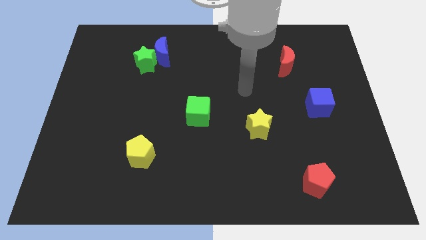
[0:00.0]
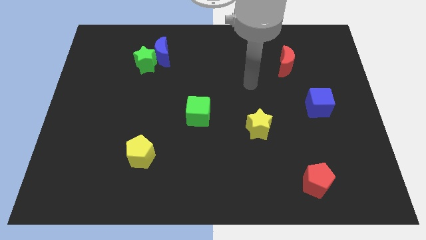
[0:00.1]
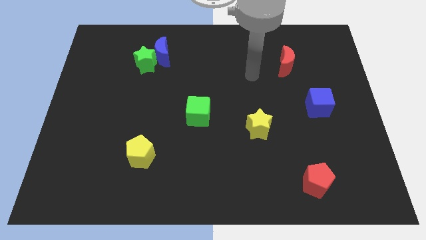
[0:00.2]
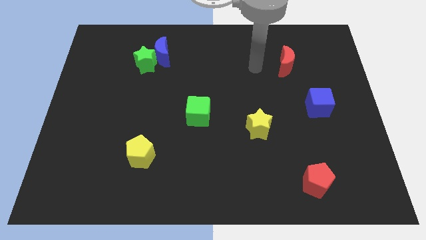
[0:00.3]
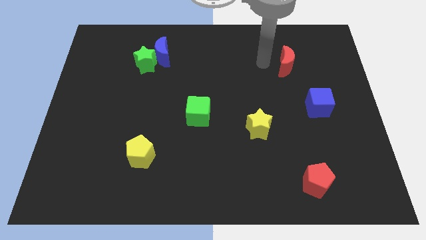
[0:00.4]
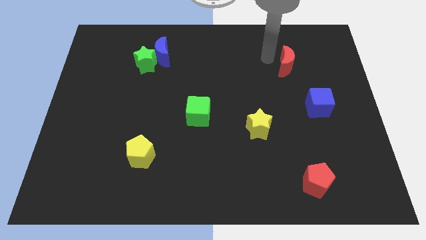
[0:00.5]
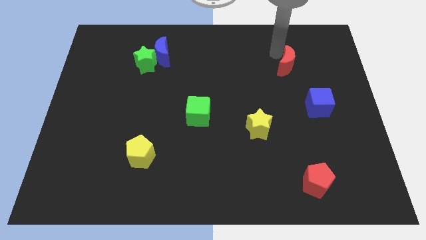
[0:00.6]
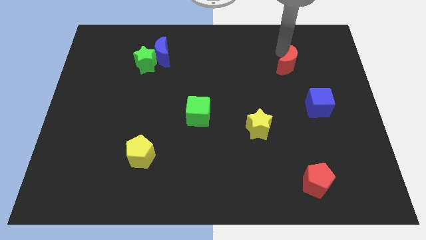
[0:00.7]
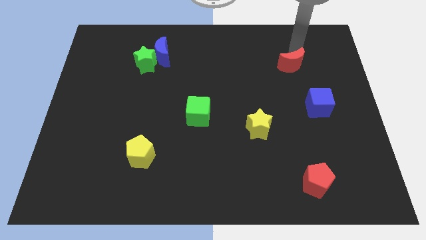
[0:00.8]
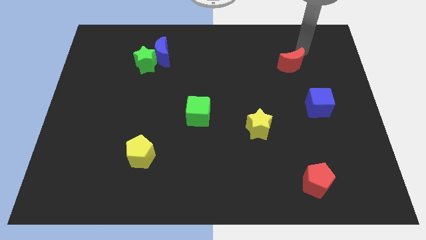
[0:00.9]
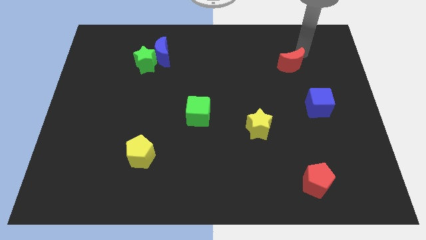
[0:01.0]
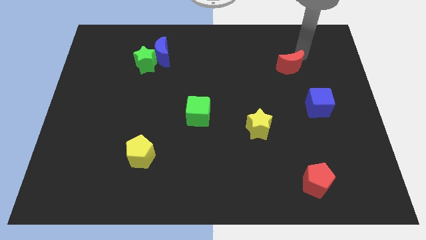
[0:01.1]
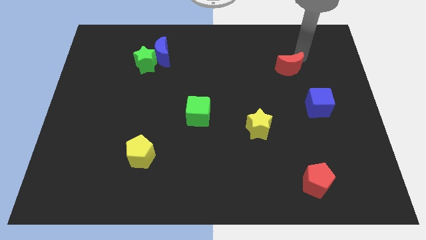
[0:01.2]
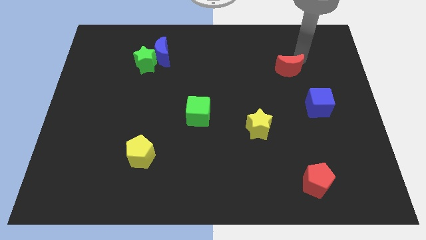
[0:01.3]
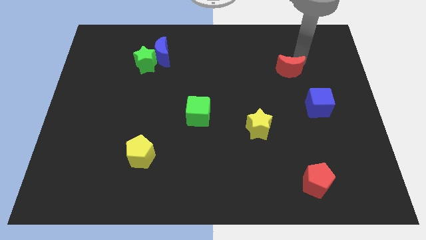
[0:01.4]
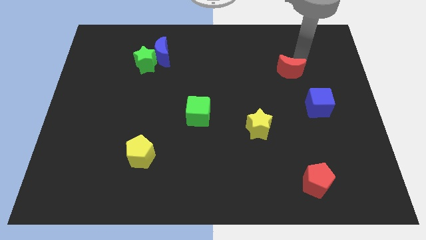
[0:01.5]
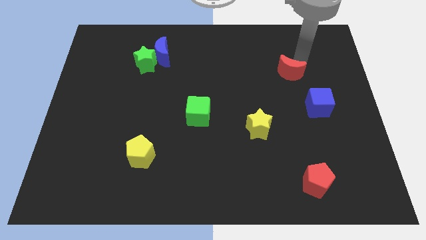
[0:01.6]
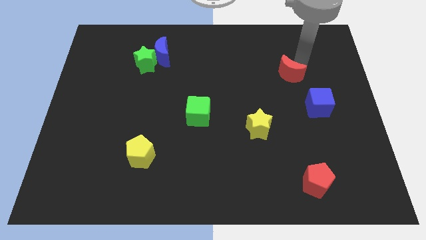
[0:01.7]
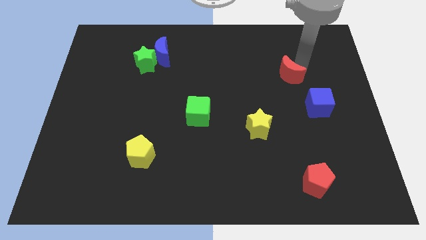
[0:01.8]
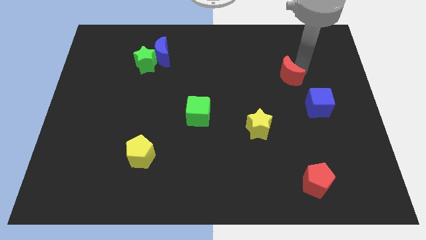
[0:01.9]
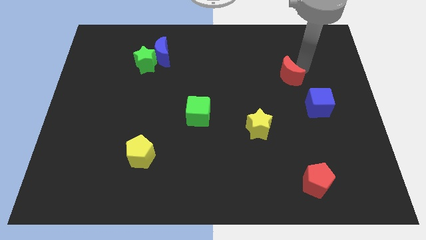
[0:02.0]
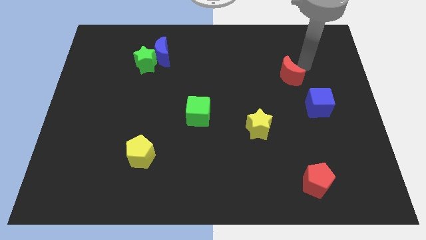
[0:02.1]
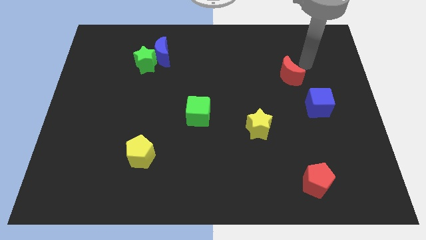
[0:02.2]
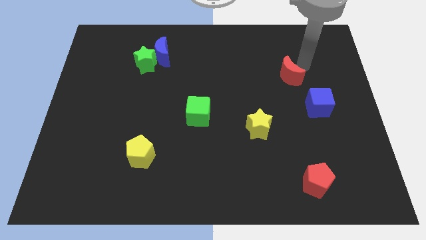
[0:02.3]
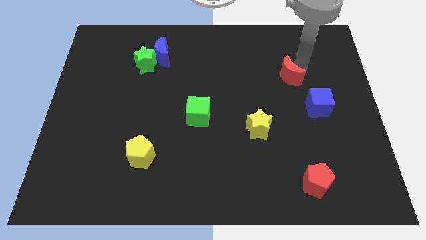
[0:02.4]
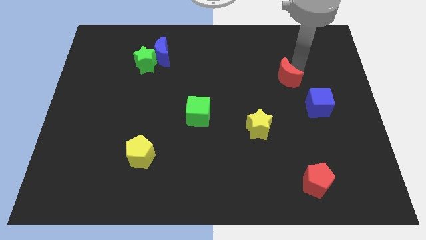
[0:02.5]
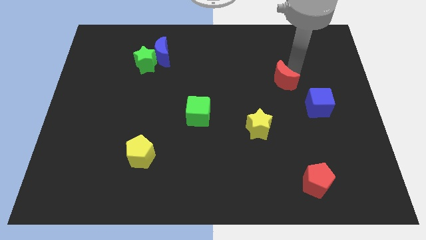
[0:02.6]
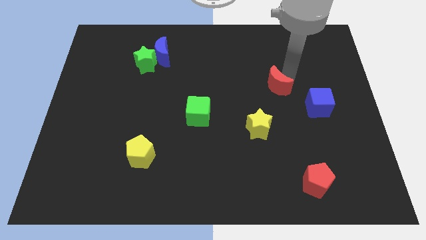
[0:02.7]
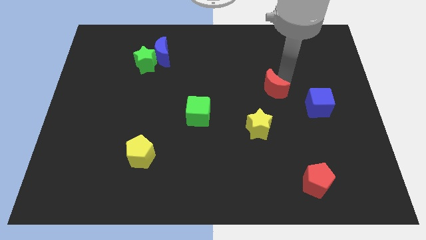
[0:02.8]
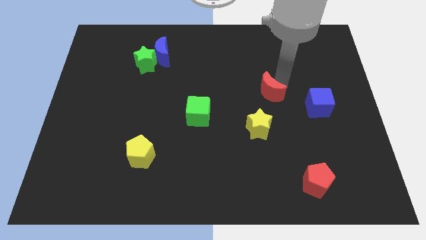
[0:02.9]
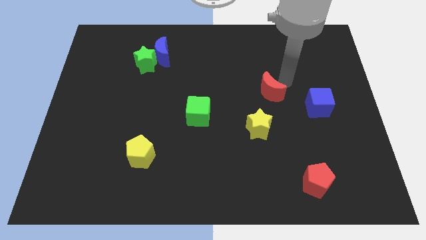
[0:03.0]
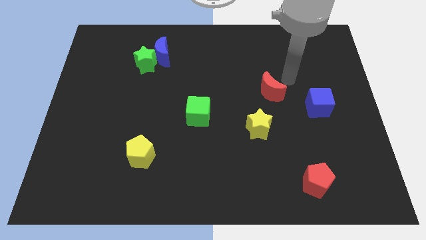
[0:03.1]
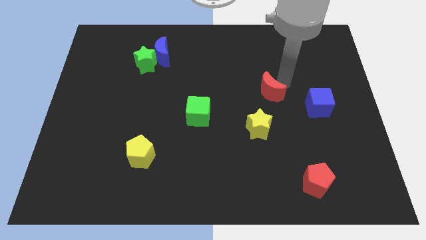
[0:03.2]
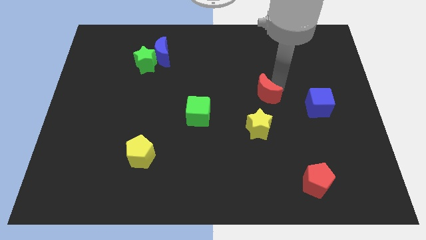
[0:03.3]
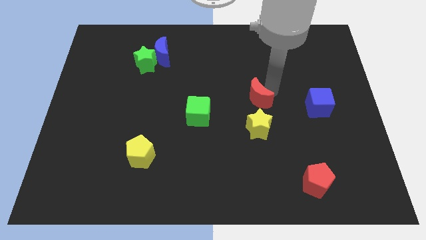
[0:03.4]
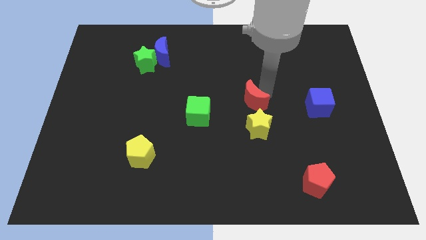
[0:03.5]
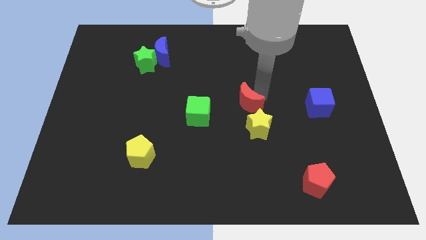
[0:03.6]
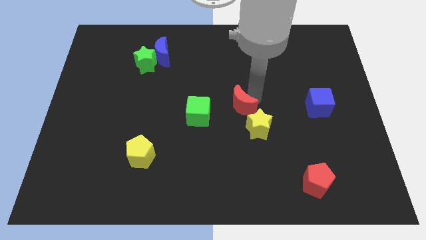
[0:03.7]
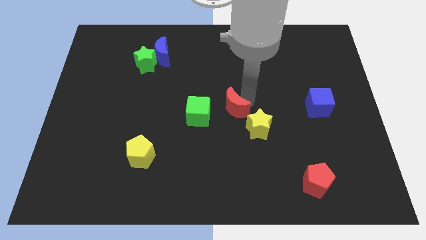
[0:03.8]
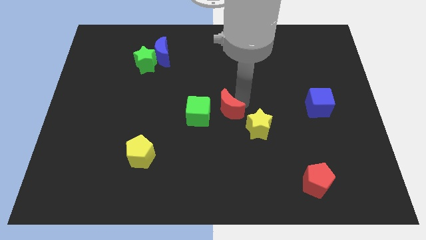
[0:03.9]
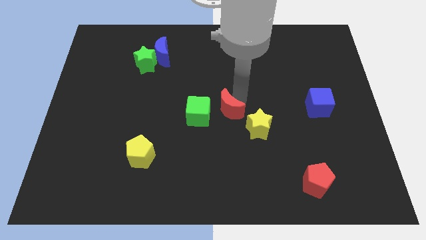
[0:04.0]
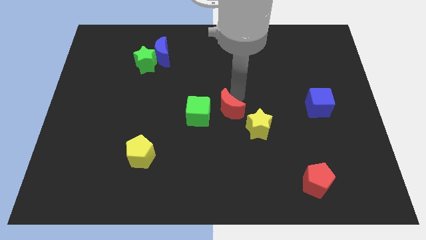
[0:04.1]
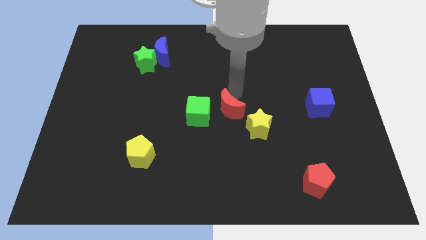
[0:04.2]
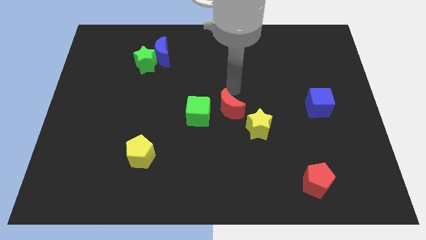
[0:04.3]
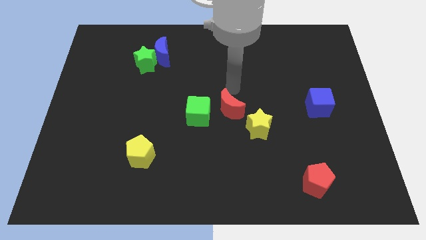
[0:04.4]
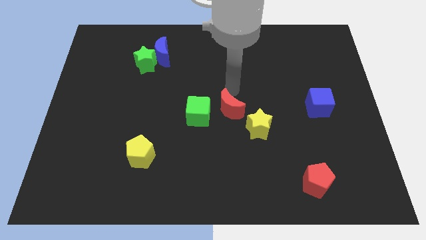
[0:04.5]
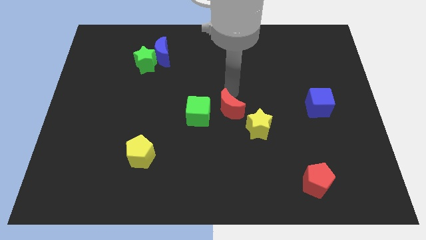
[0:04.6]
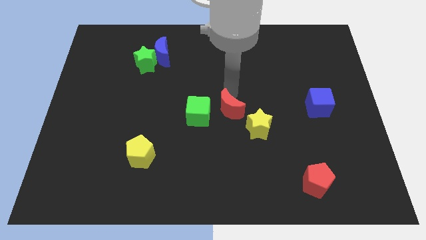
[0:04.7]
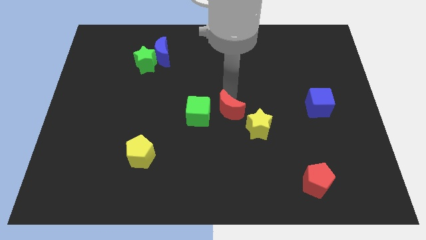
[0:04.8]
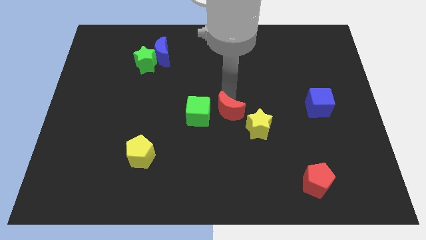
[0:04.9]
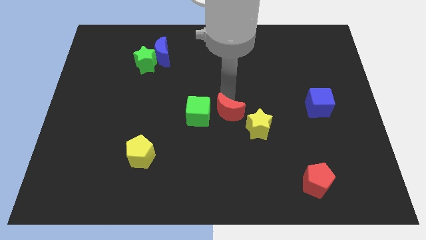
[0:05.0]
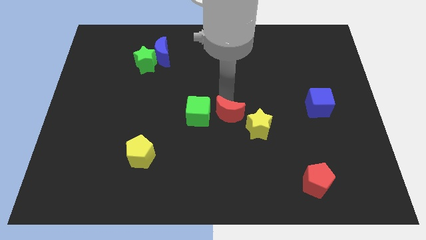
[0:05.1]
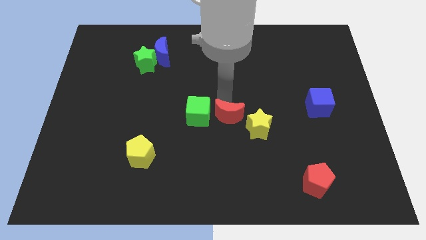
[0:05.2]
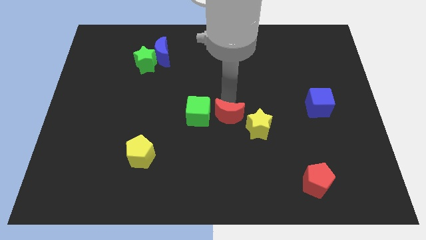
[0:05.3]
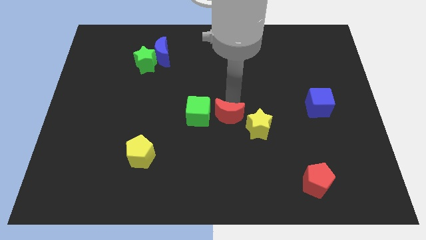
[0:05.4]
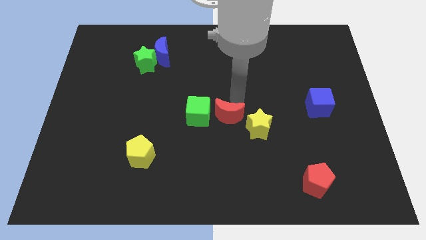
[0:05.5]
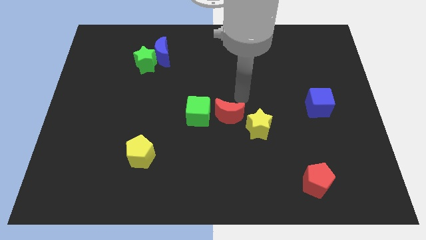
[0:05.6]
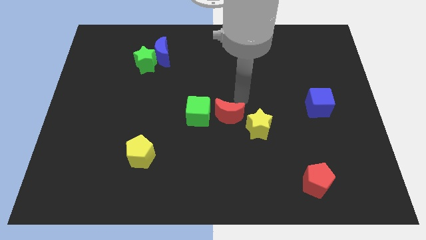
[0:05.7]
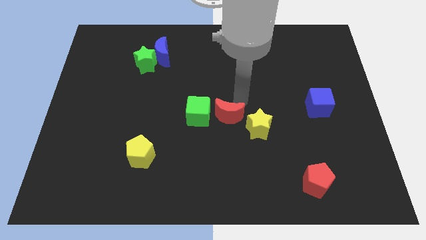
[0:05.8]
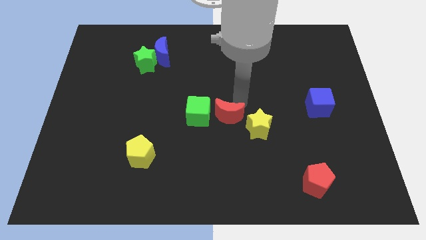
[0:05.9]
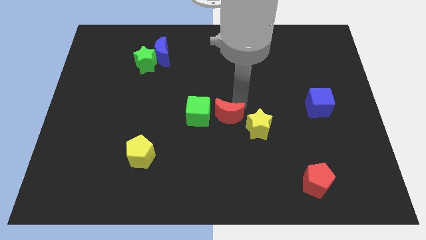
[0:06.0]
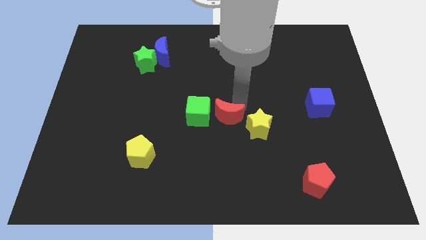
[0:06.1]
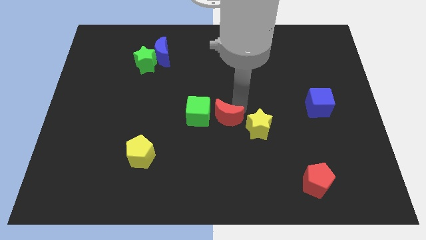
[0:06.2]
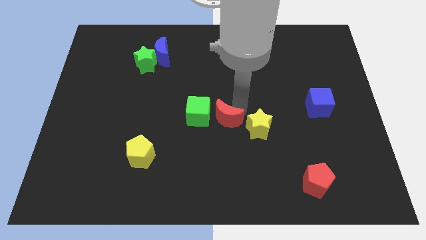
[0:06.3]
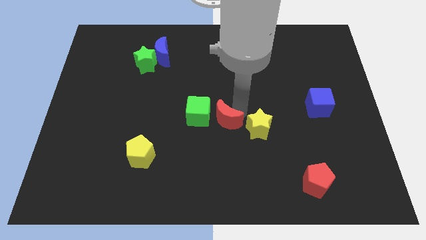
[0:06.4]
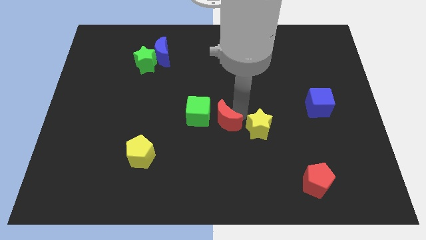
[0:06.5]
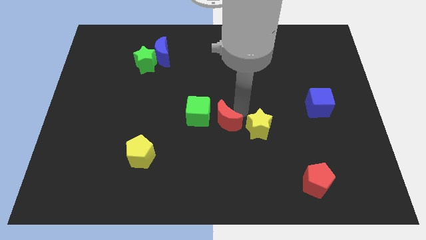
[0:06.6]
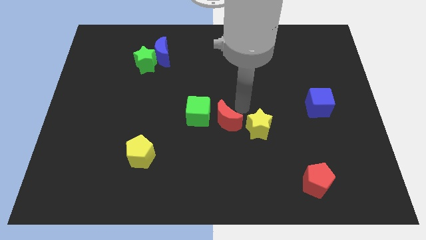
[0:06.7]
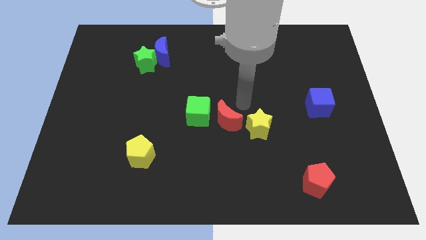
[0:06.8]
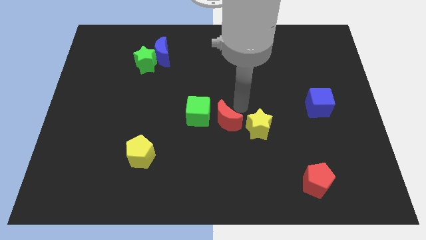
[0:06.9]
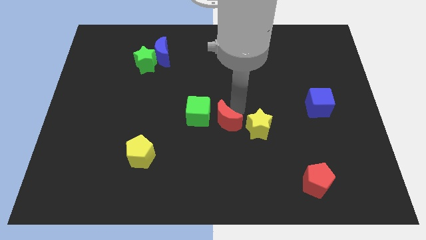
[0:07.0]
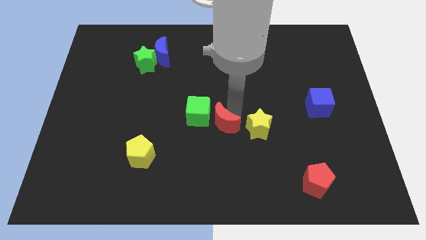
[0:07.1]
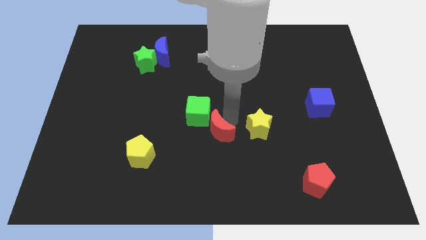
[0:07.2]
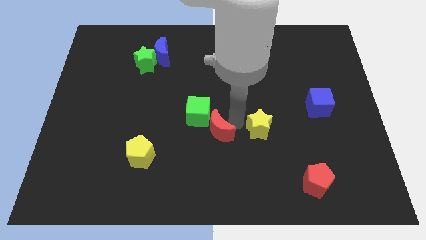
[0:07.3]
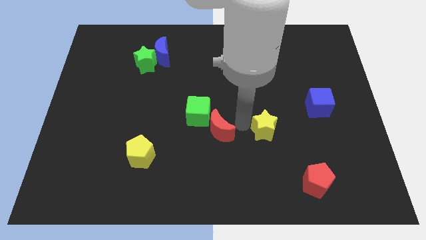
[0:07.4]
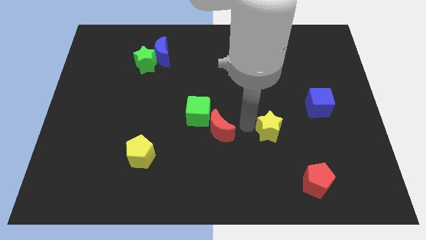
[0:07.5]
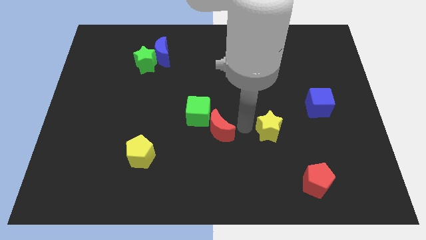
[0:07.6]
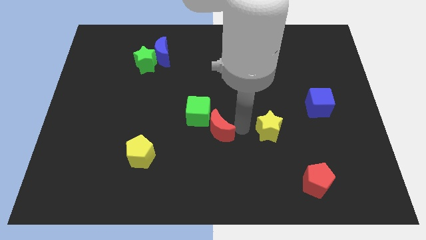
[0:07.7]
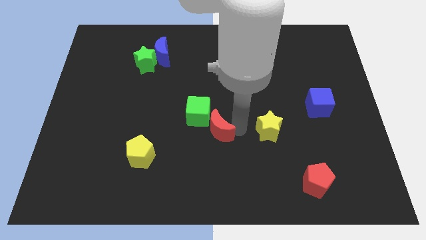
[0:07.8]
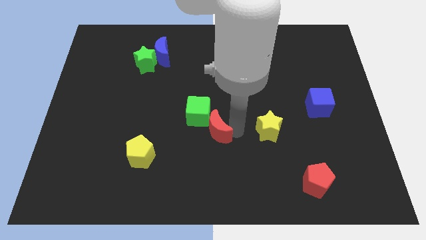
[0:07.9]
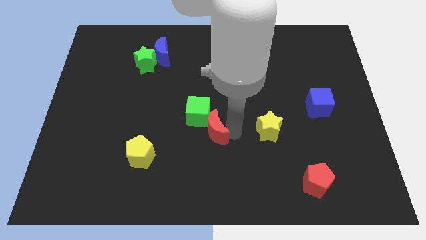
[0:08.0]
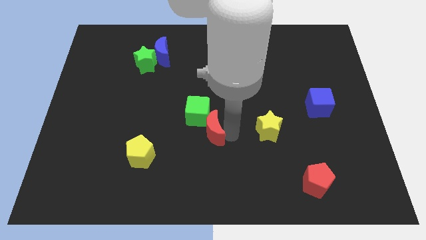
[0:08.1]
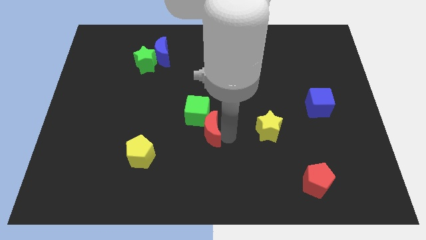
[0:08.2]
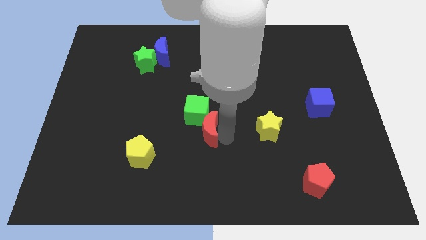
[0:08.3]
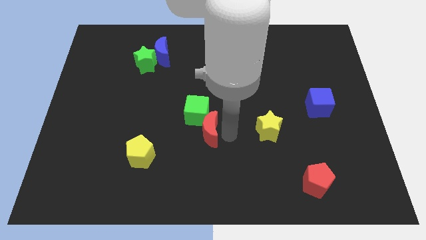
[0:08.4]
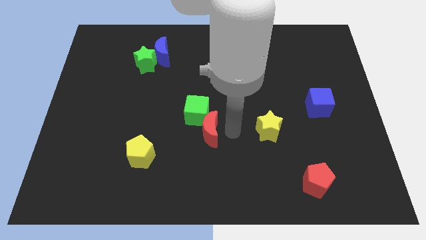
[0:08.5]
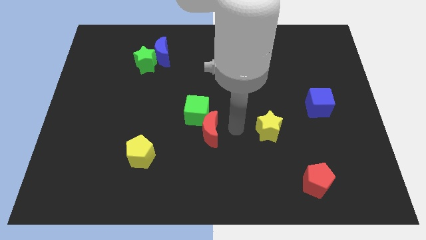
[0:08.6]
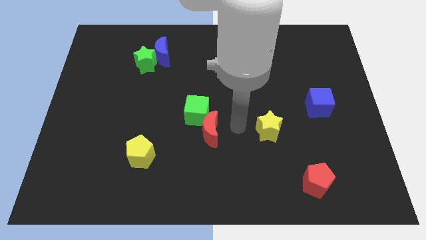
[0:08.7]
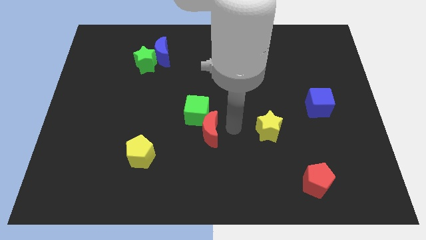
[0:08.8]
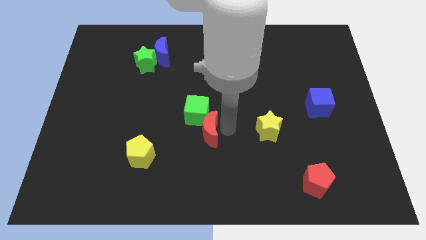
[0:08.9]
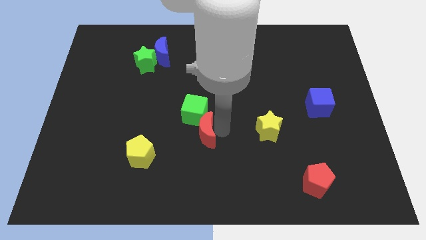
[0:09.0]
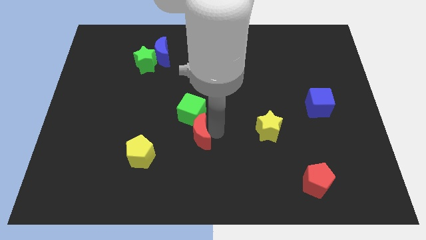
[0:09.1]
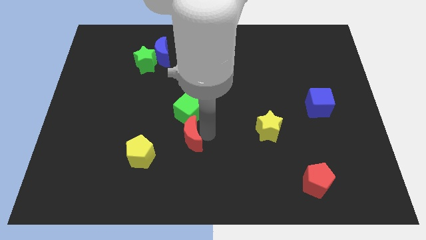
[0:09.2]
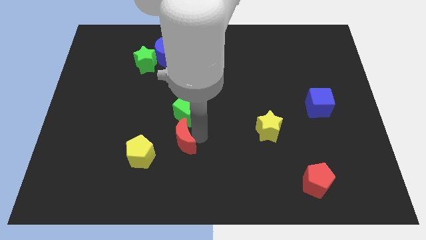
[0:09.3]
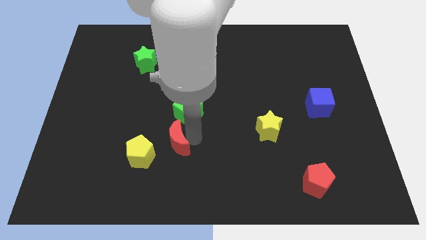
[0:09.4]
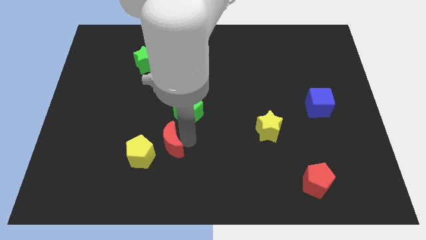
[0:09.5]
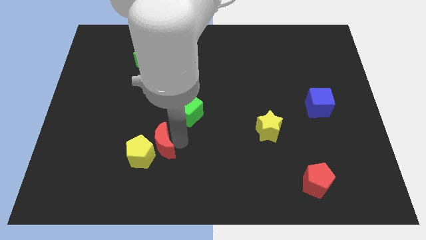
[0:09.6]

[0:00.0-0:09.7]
slide the red moon to the yellow pentagon
